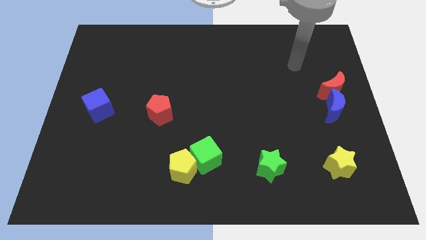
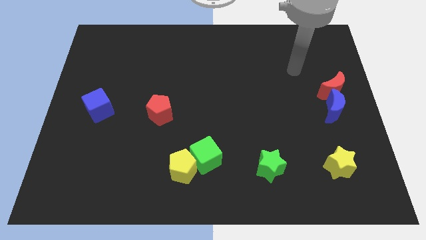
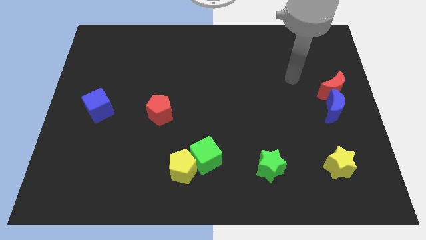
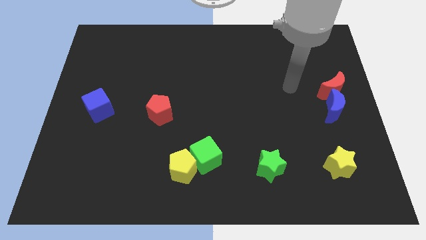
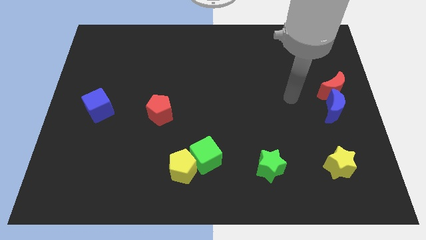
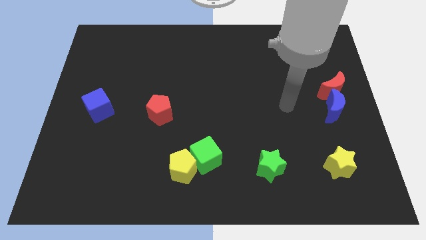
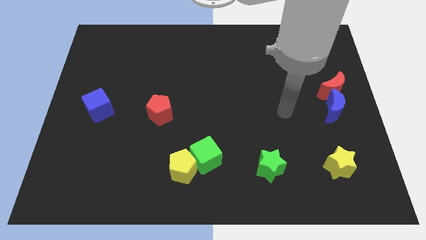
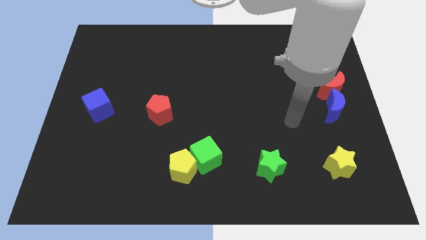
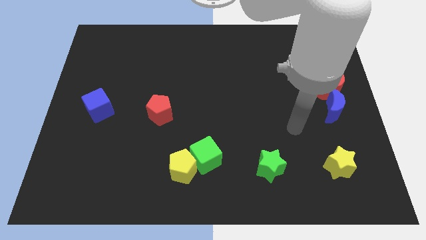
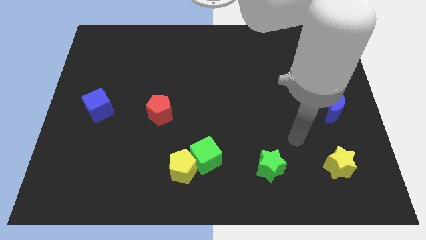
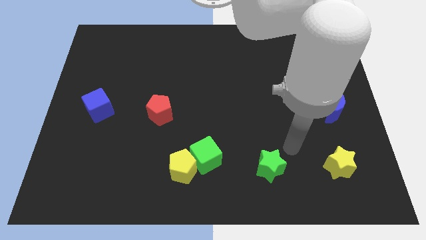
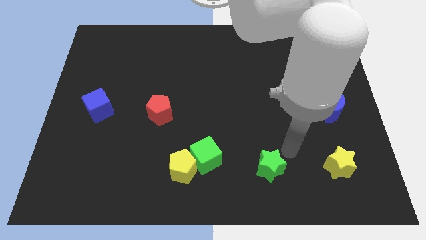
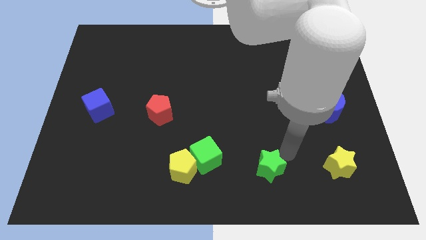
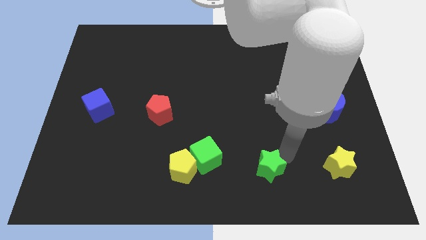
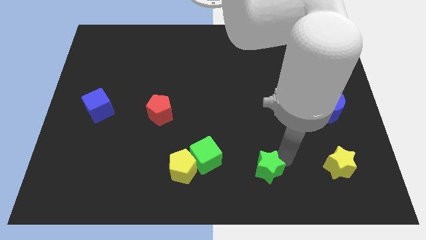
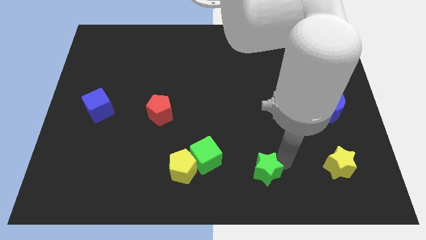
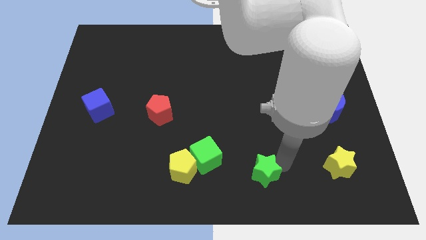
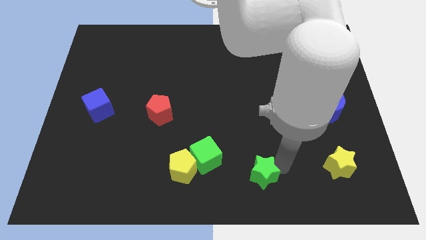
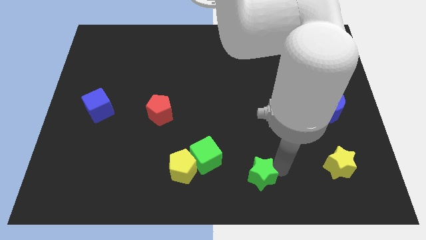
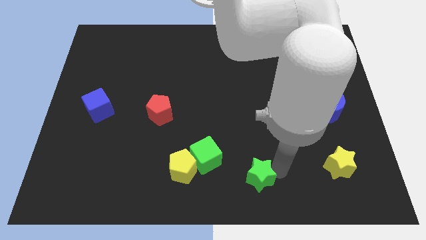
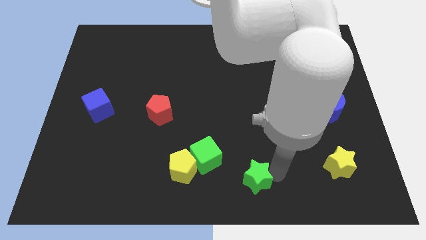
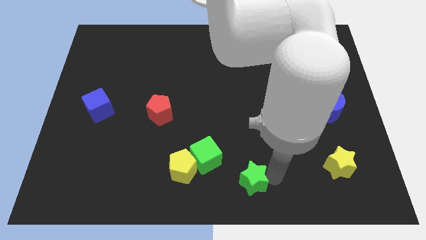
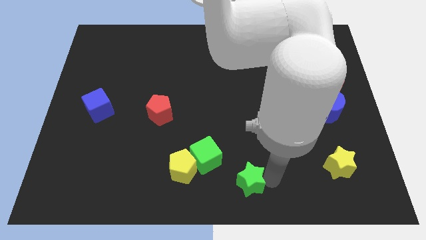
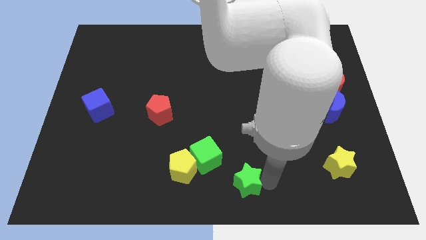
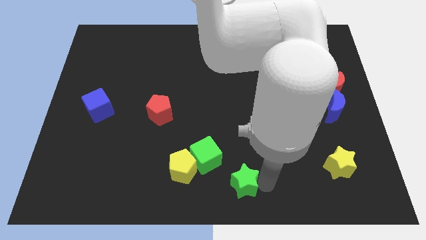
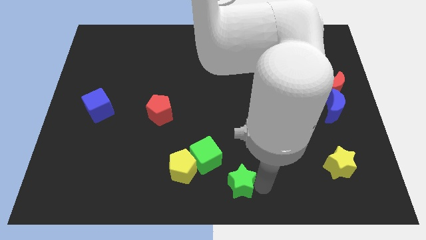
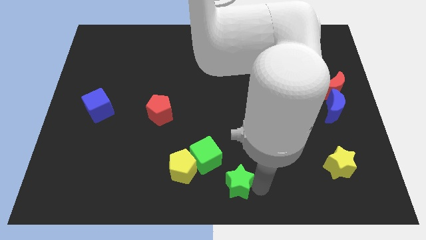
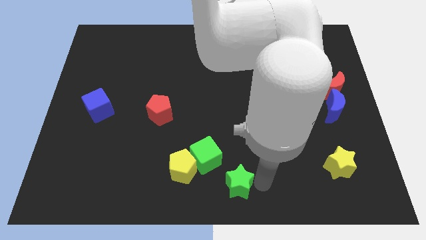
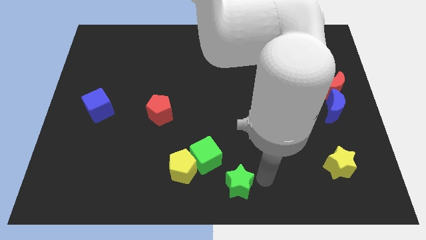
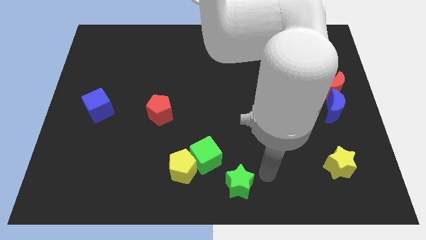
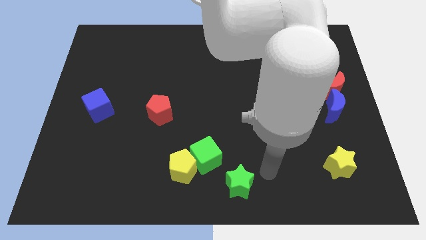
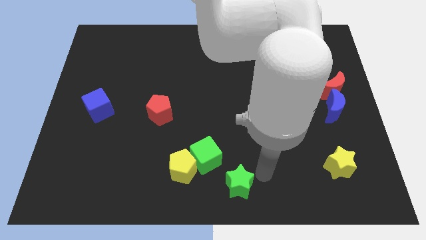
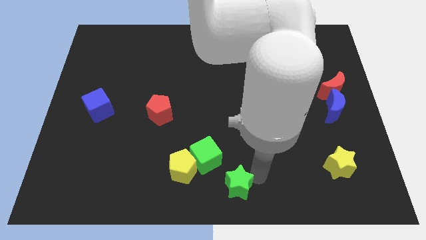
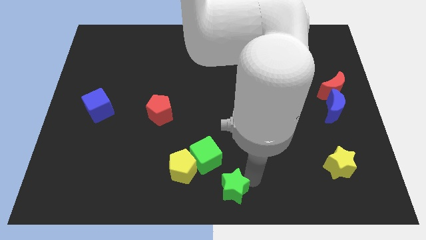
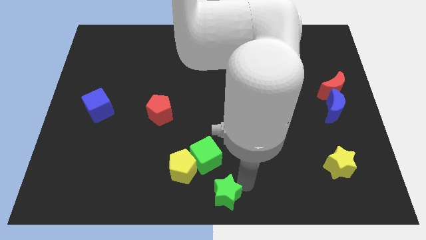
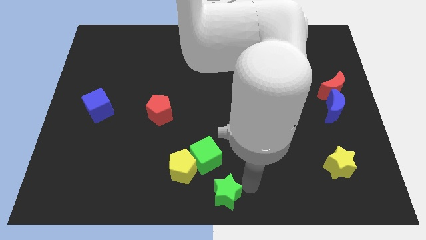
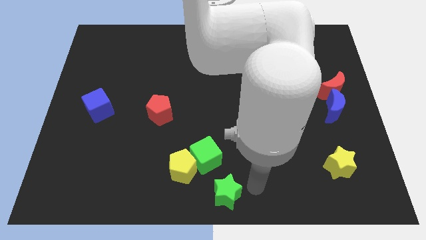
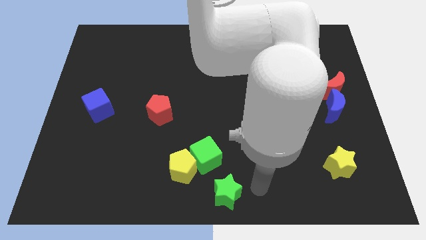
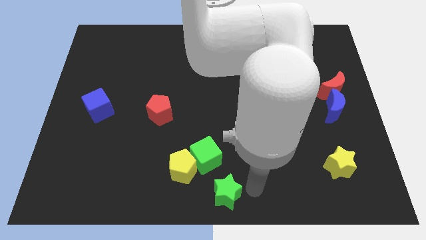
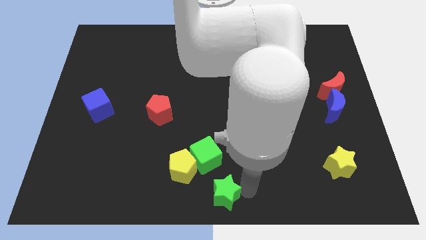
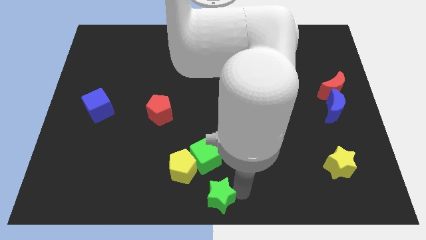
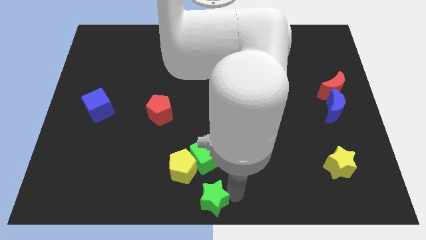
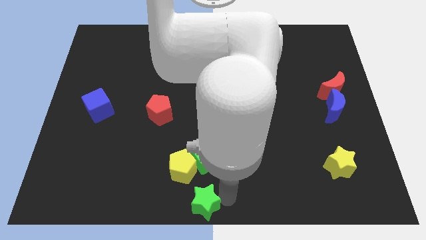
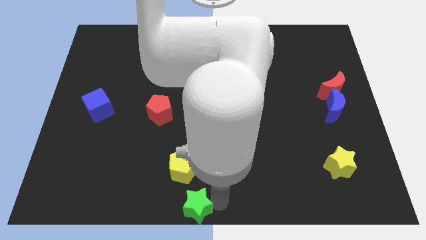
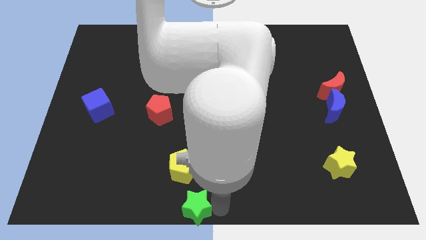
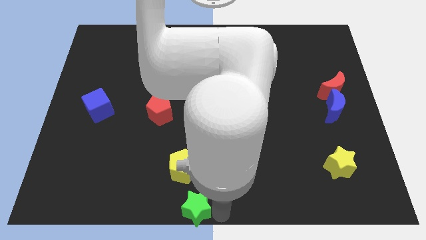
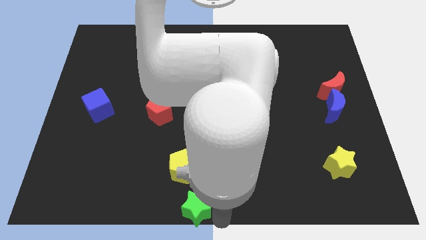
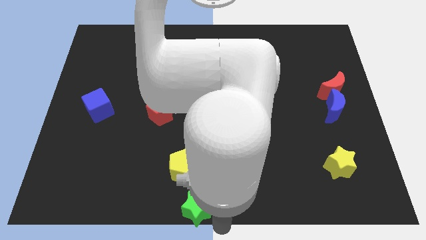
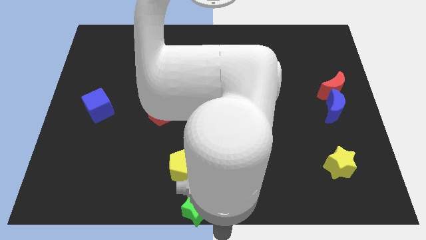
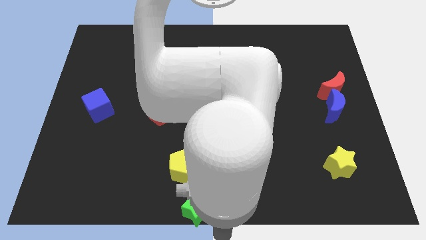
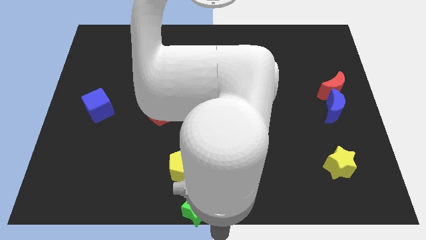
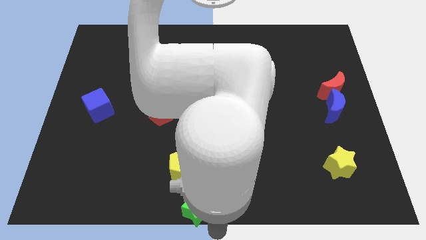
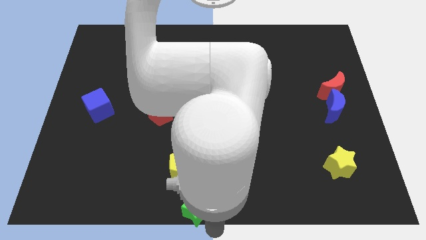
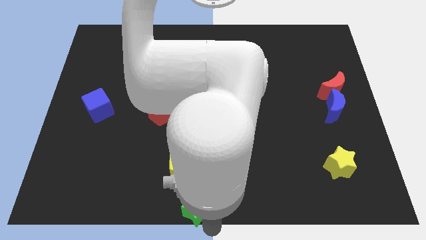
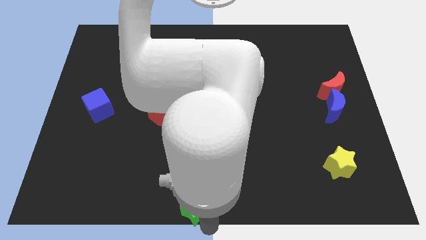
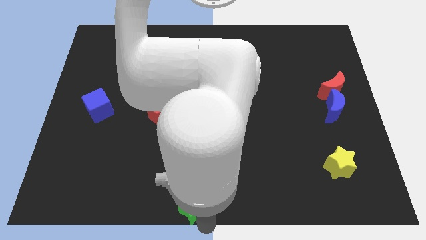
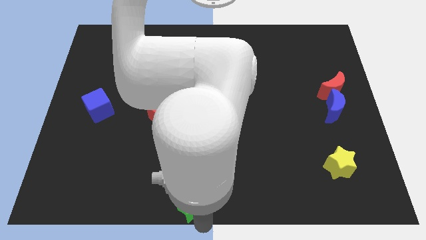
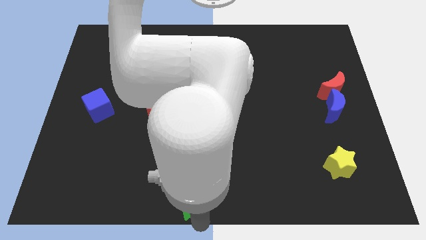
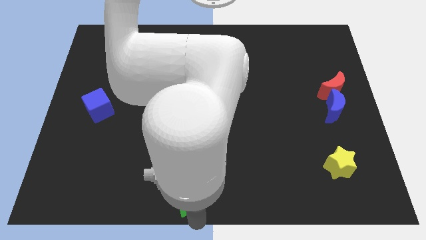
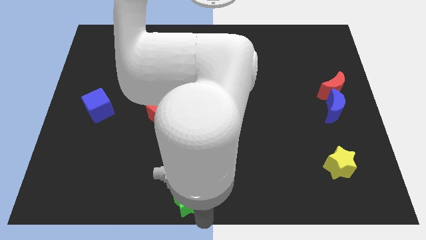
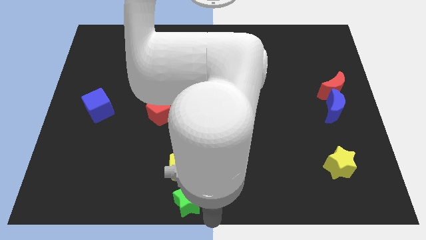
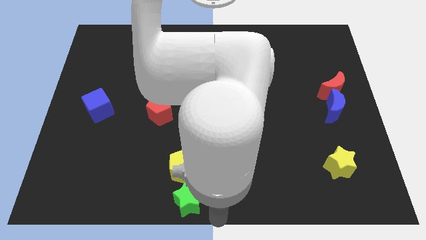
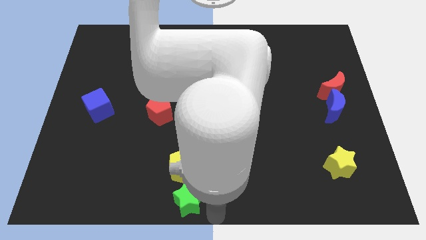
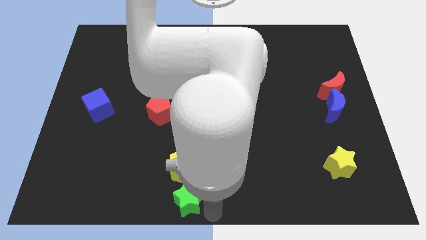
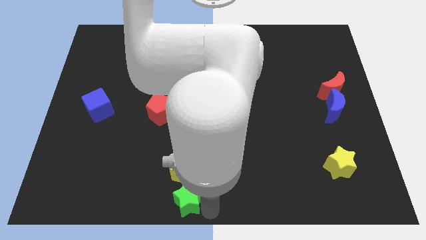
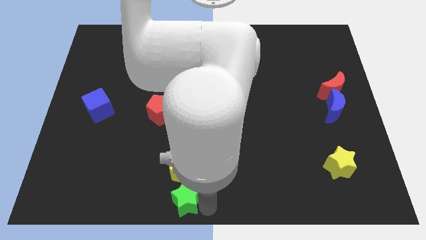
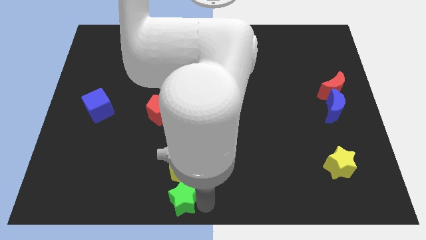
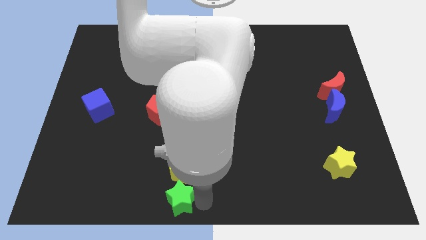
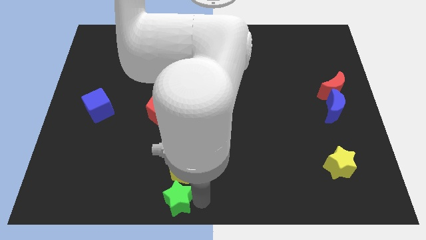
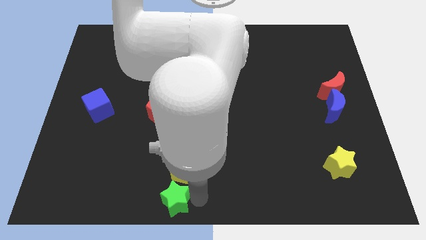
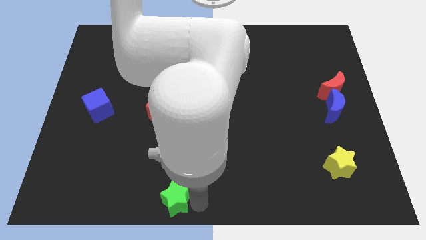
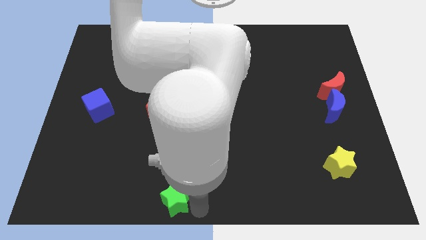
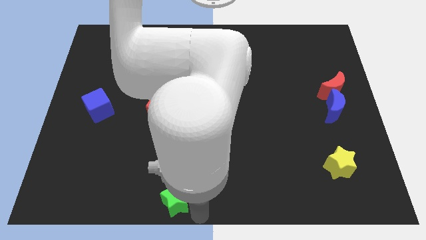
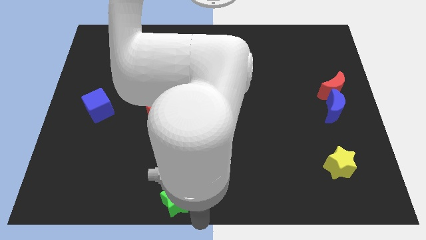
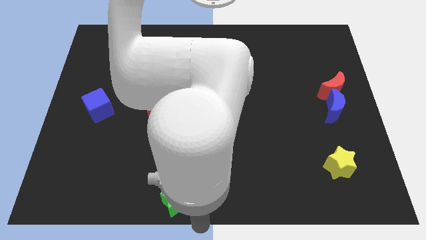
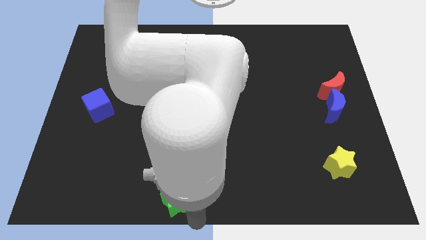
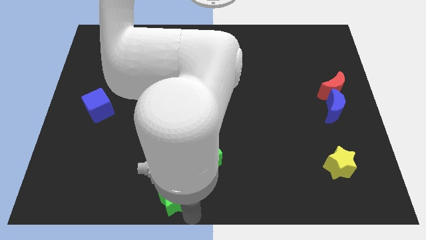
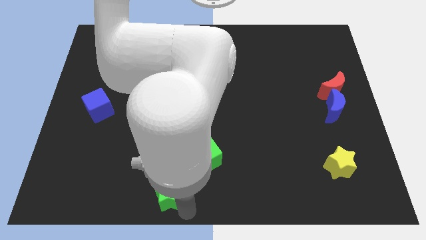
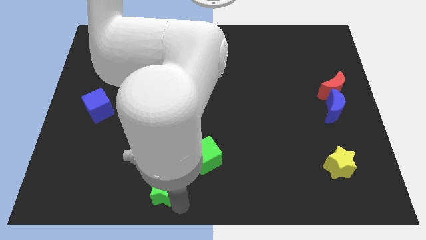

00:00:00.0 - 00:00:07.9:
move the green star to the left
